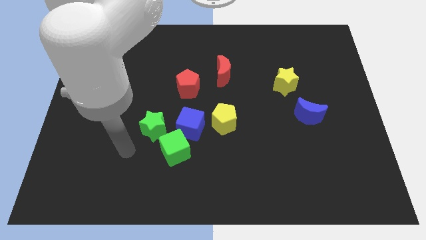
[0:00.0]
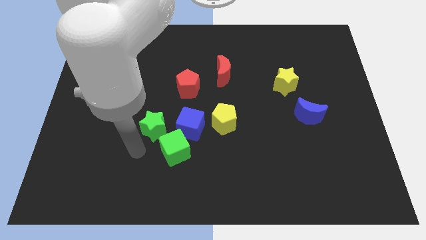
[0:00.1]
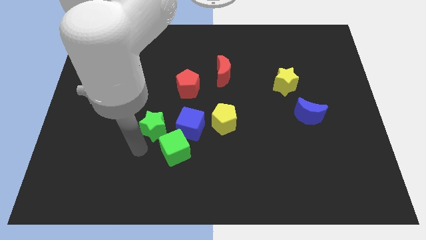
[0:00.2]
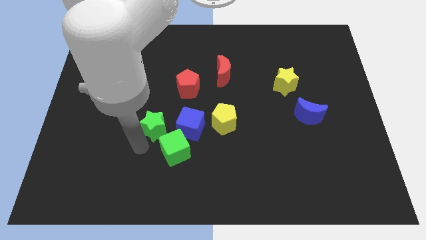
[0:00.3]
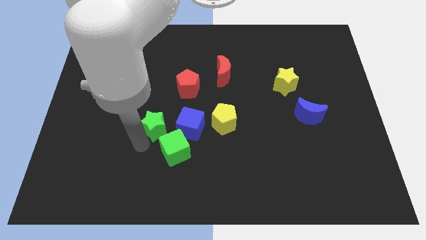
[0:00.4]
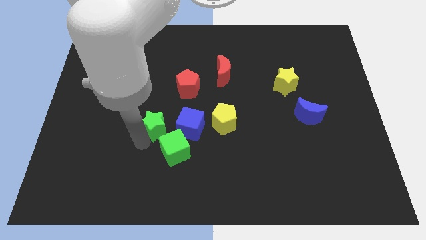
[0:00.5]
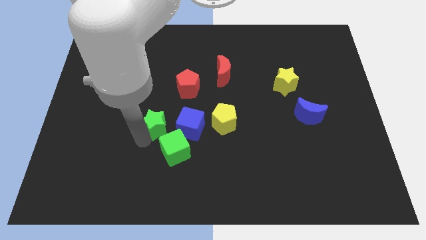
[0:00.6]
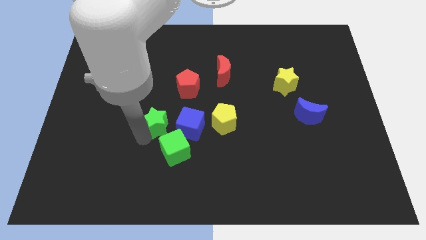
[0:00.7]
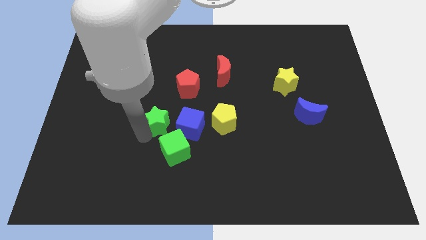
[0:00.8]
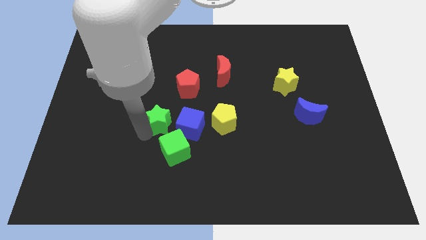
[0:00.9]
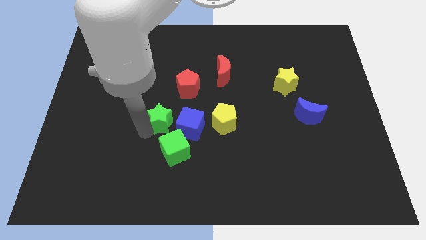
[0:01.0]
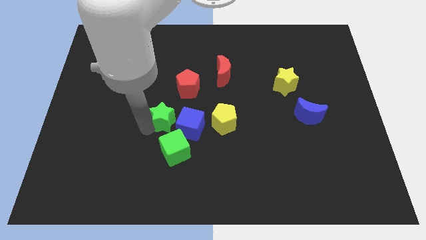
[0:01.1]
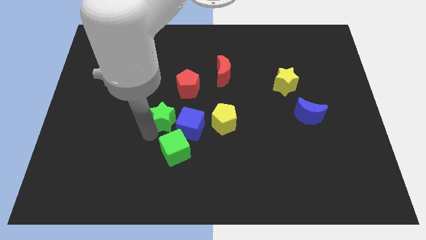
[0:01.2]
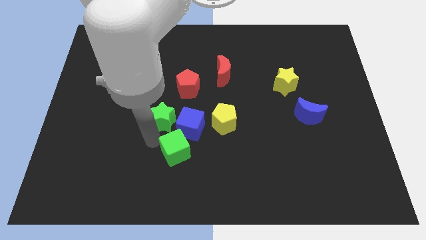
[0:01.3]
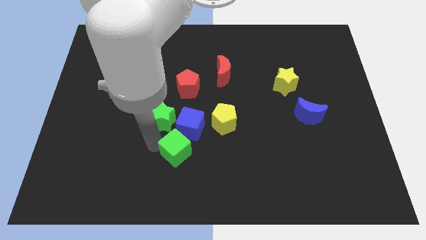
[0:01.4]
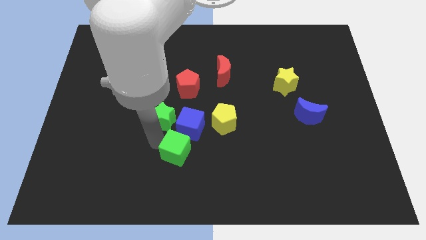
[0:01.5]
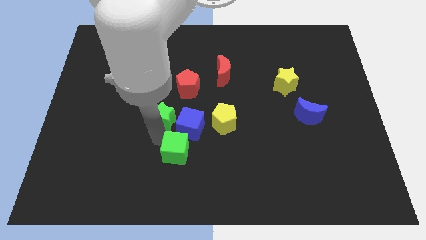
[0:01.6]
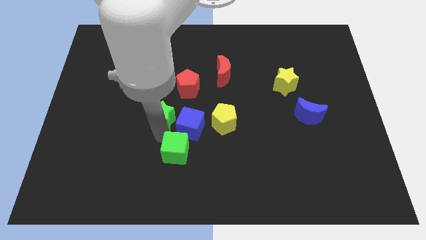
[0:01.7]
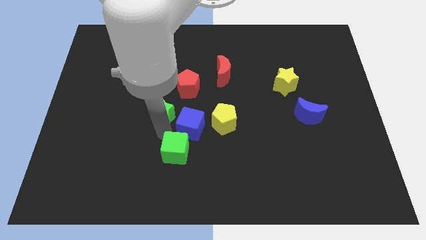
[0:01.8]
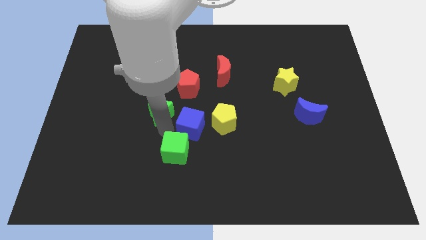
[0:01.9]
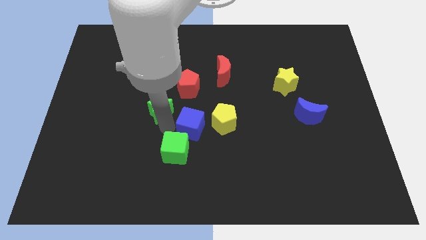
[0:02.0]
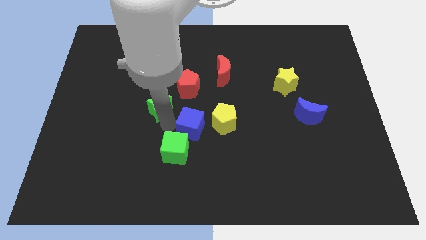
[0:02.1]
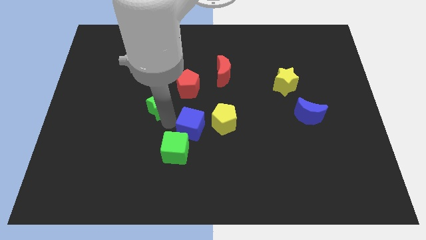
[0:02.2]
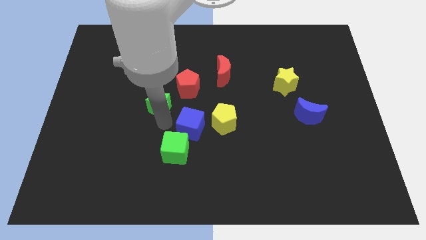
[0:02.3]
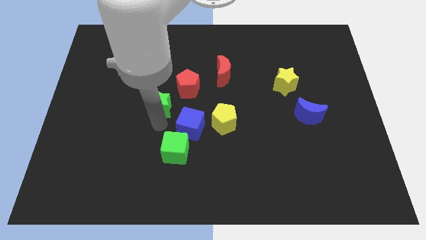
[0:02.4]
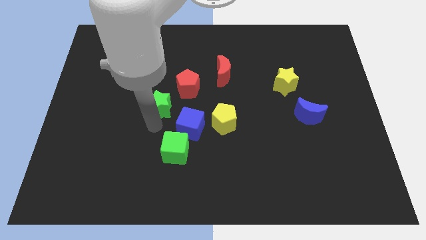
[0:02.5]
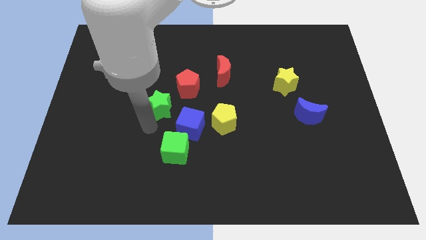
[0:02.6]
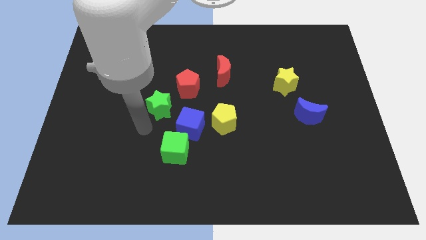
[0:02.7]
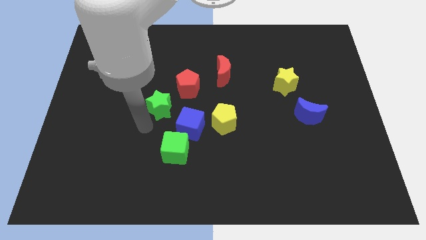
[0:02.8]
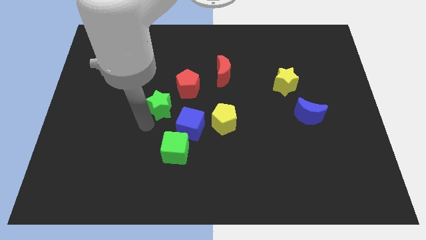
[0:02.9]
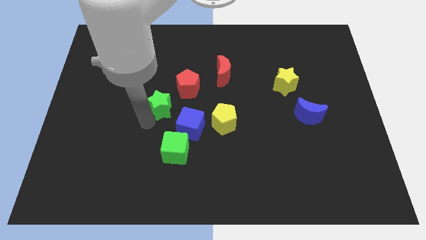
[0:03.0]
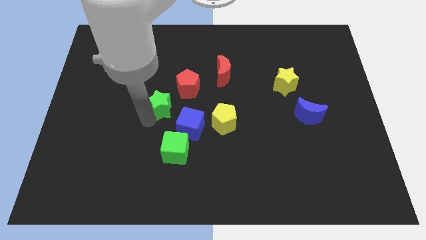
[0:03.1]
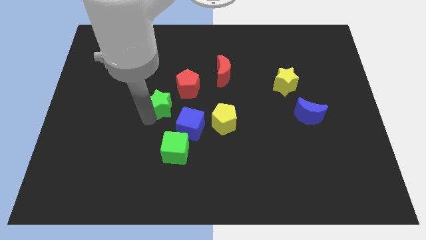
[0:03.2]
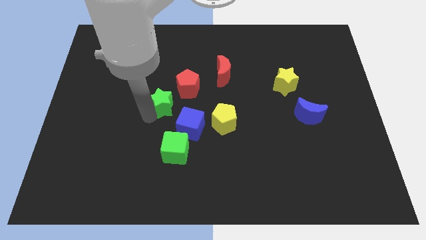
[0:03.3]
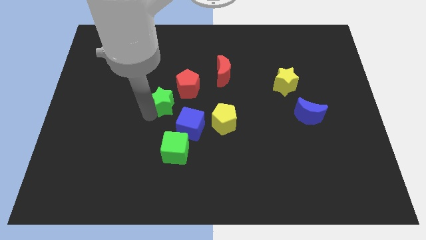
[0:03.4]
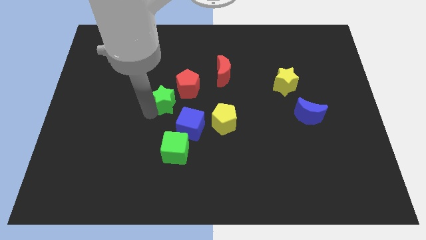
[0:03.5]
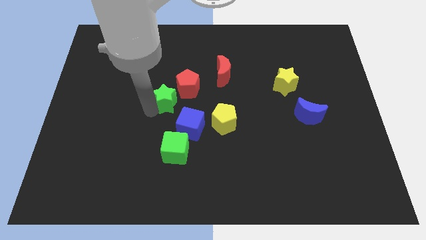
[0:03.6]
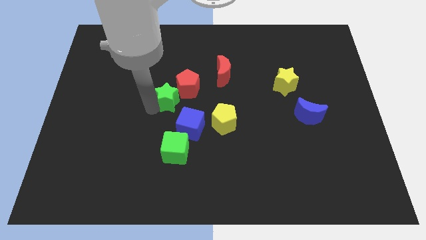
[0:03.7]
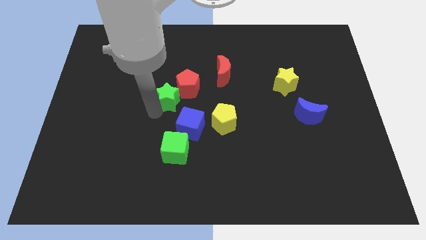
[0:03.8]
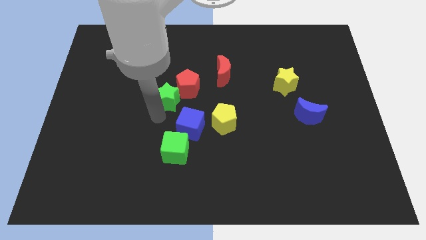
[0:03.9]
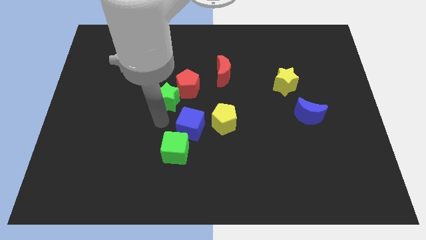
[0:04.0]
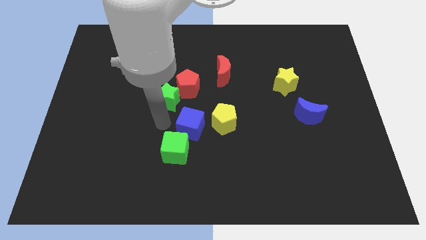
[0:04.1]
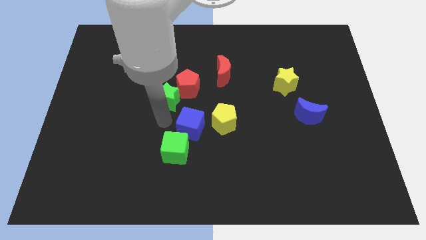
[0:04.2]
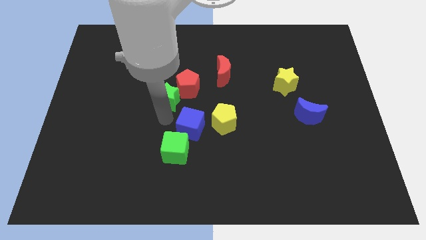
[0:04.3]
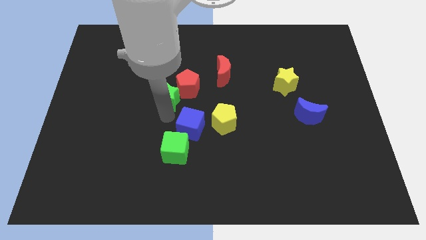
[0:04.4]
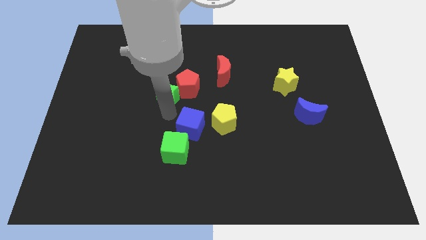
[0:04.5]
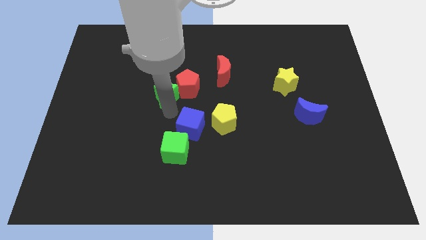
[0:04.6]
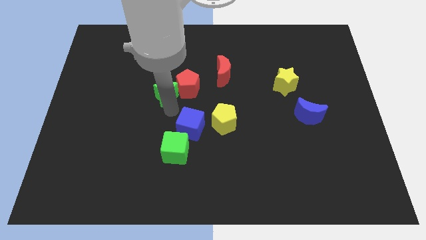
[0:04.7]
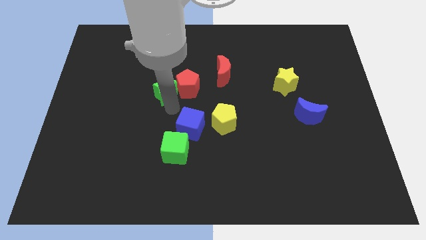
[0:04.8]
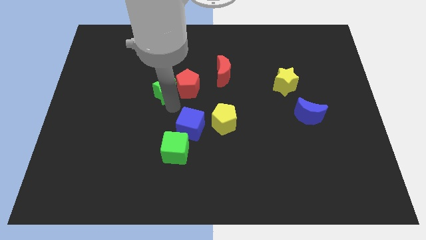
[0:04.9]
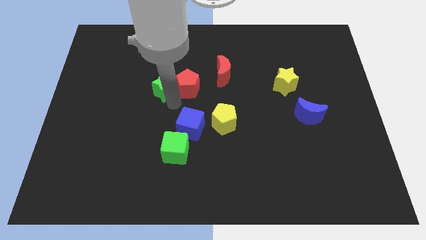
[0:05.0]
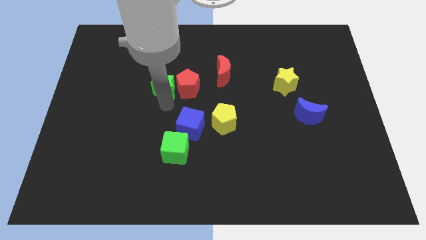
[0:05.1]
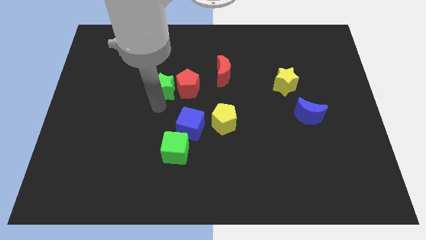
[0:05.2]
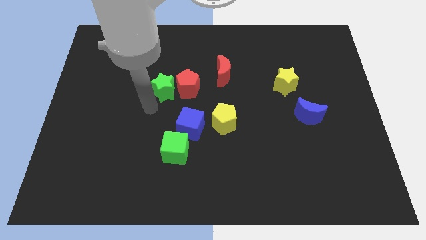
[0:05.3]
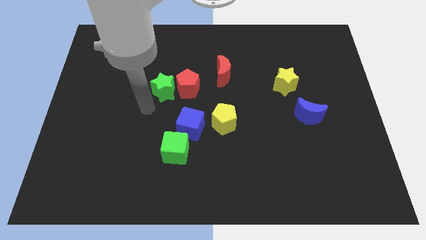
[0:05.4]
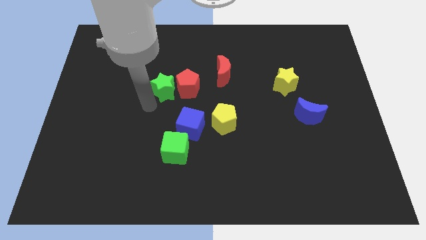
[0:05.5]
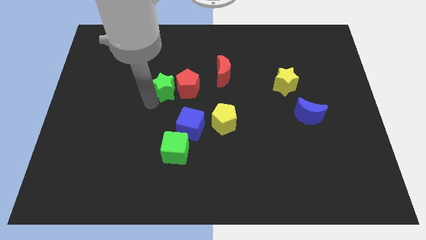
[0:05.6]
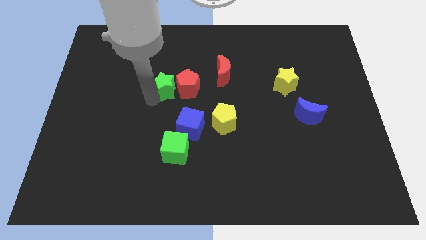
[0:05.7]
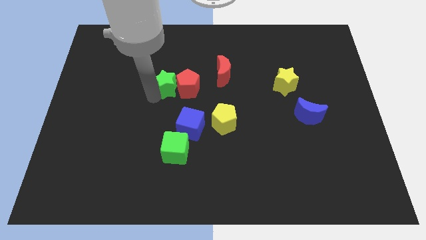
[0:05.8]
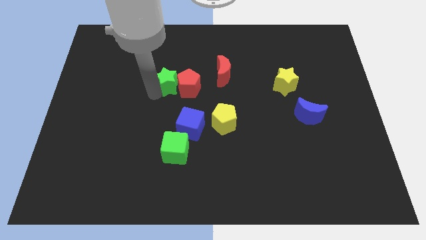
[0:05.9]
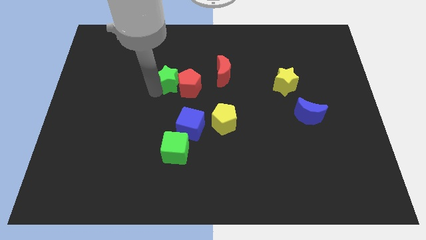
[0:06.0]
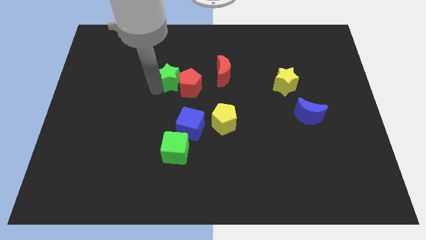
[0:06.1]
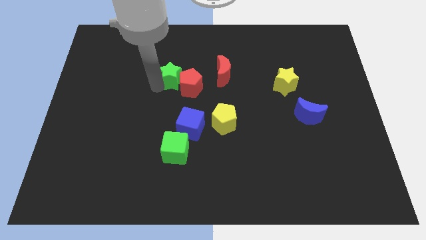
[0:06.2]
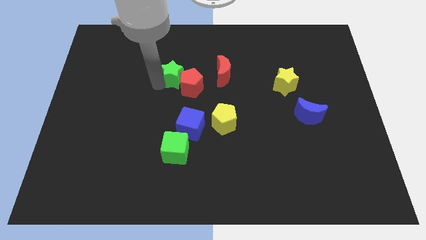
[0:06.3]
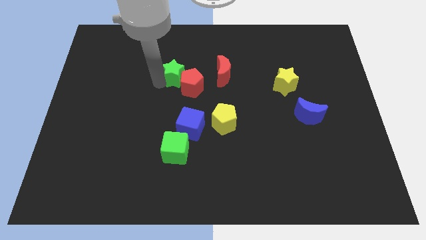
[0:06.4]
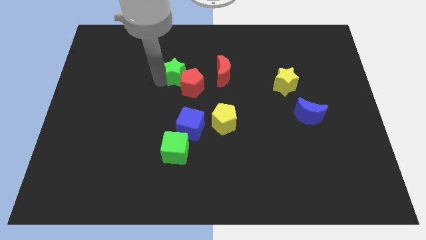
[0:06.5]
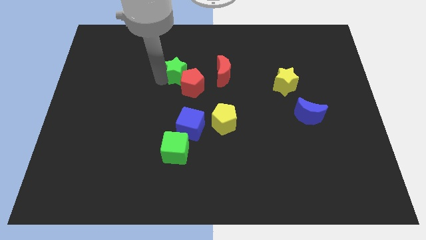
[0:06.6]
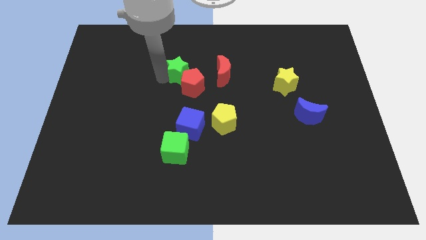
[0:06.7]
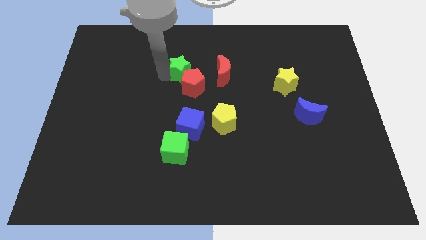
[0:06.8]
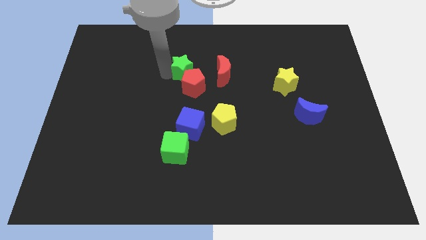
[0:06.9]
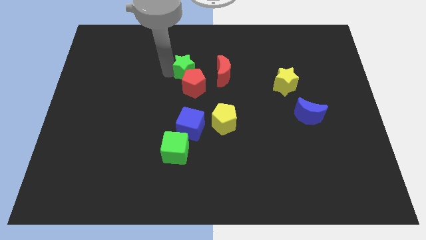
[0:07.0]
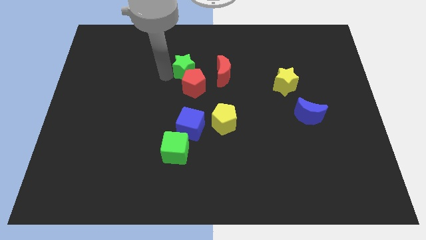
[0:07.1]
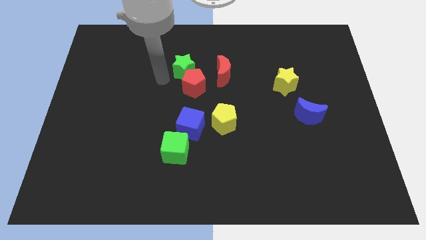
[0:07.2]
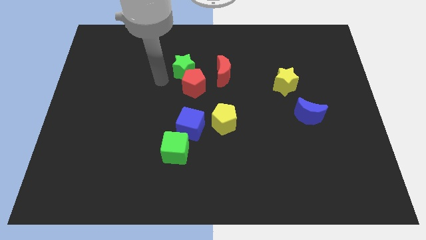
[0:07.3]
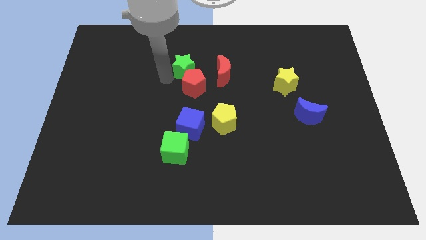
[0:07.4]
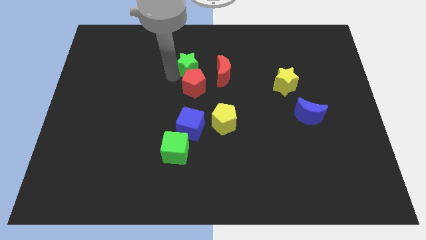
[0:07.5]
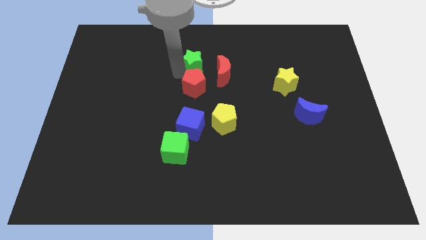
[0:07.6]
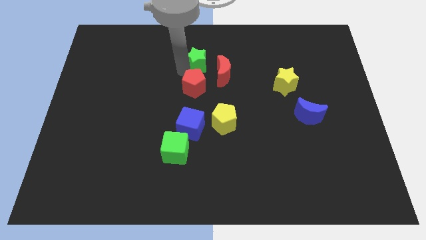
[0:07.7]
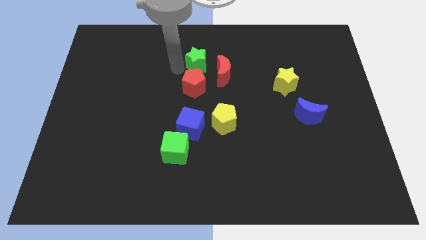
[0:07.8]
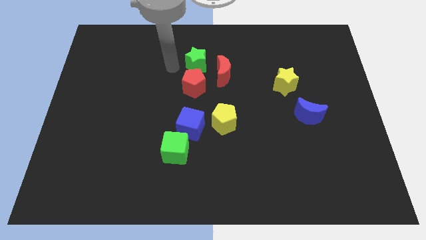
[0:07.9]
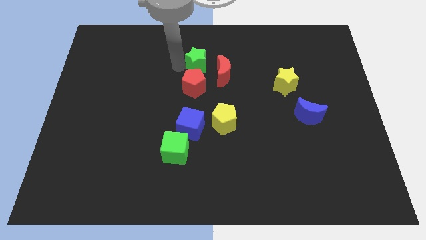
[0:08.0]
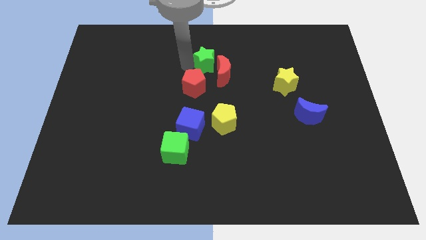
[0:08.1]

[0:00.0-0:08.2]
move the green star diagonally upwards and right
